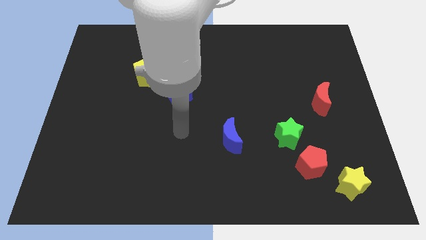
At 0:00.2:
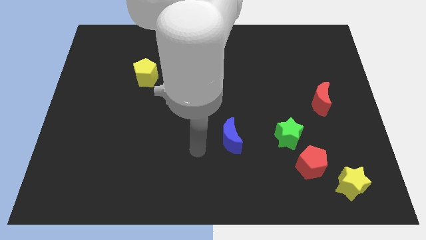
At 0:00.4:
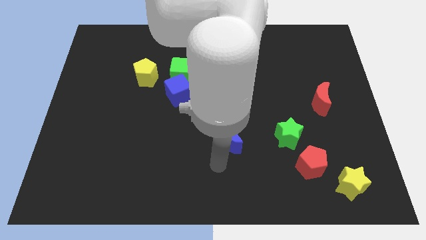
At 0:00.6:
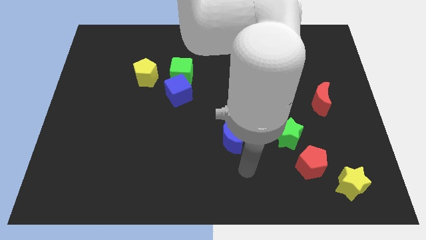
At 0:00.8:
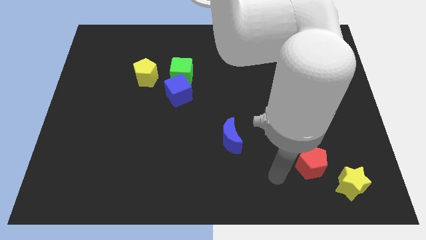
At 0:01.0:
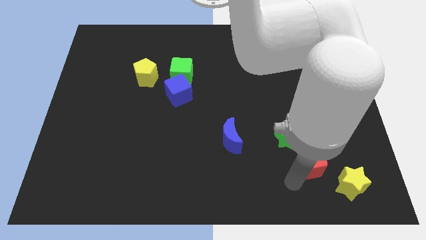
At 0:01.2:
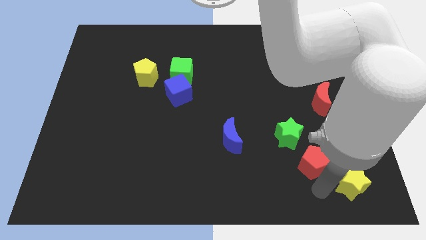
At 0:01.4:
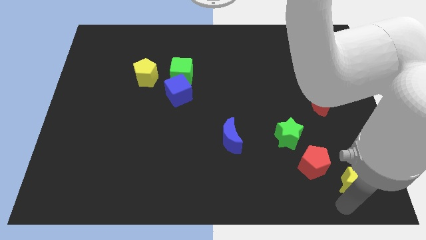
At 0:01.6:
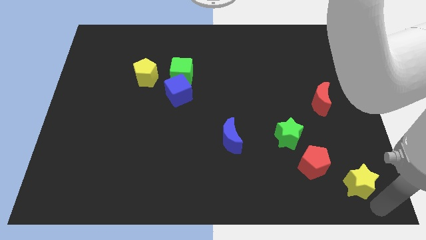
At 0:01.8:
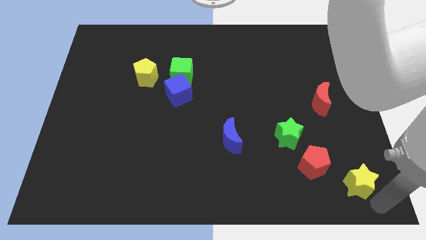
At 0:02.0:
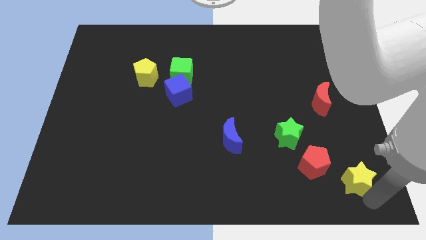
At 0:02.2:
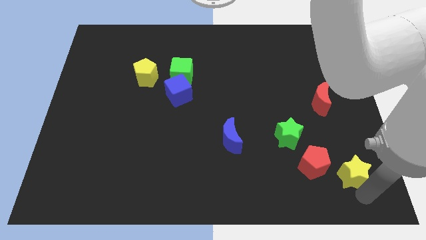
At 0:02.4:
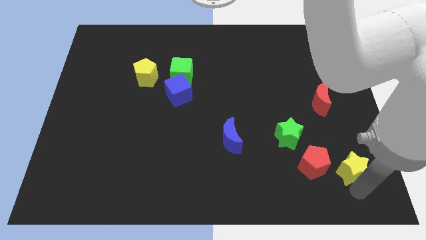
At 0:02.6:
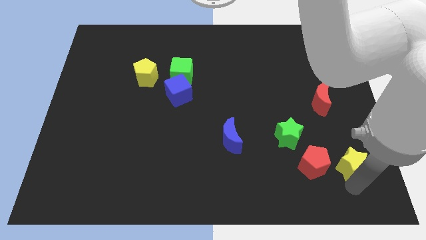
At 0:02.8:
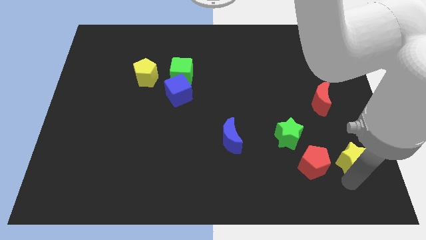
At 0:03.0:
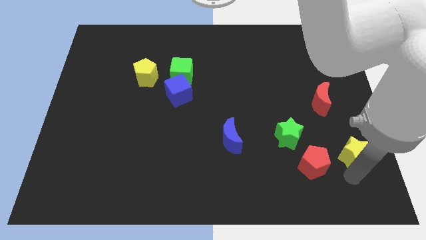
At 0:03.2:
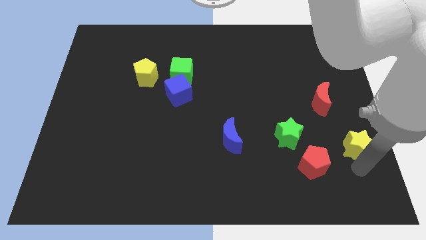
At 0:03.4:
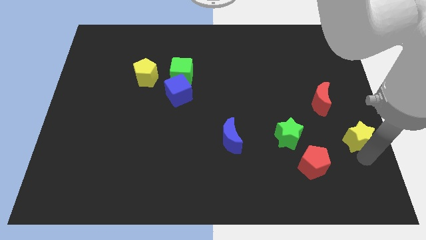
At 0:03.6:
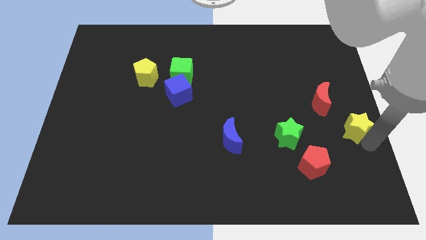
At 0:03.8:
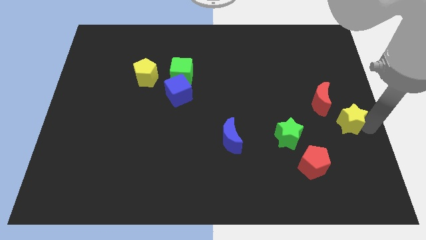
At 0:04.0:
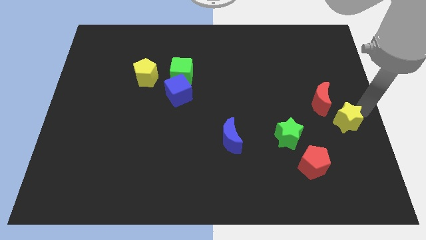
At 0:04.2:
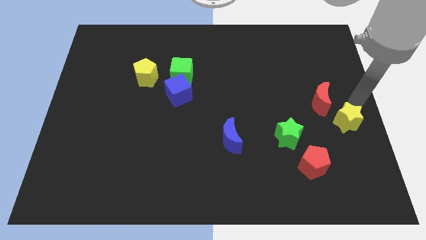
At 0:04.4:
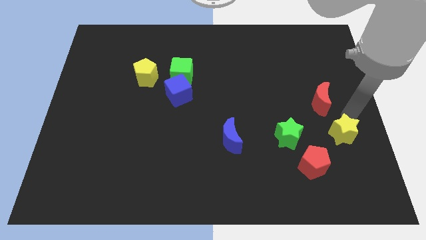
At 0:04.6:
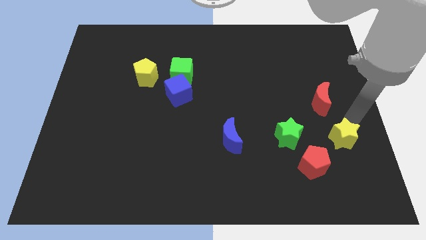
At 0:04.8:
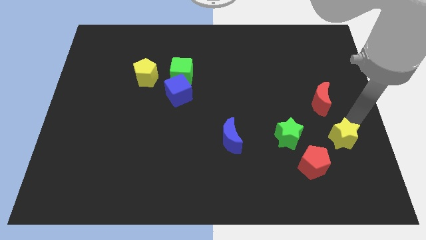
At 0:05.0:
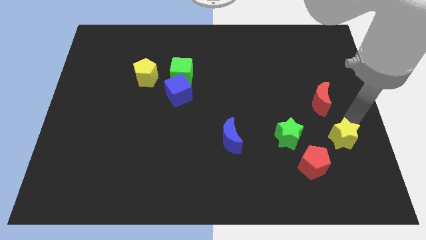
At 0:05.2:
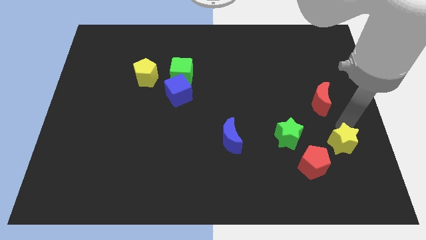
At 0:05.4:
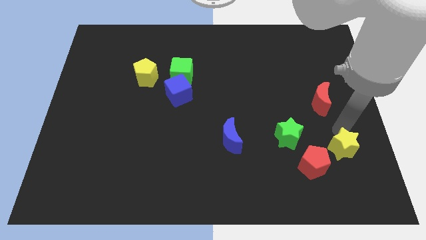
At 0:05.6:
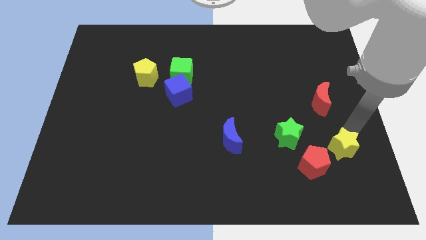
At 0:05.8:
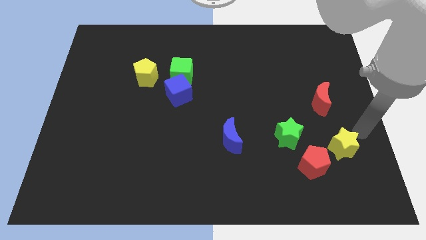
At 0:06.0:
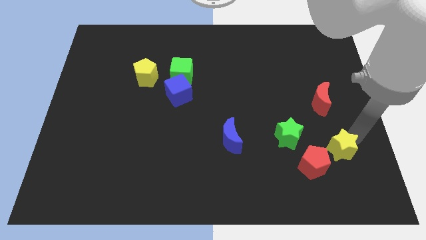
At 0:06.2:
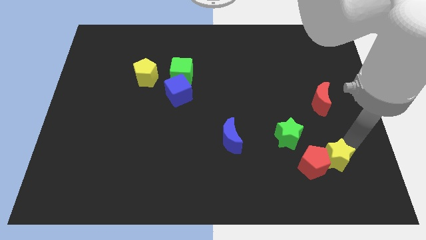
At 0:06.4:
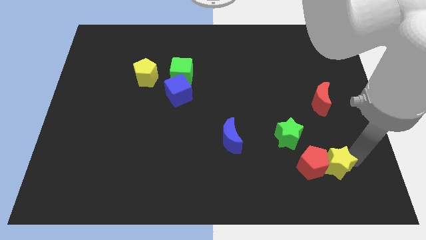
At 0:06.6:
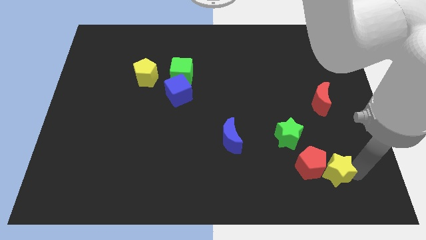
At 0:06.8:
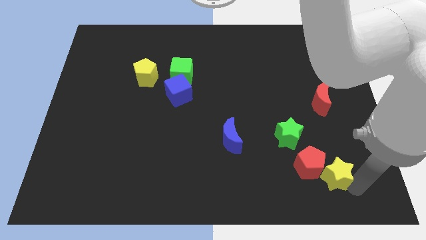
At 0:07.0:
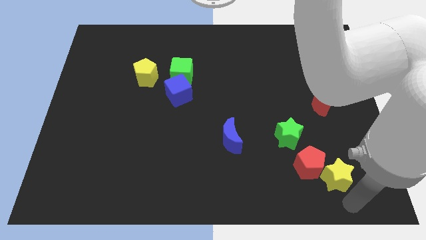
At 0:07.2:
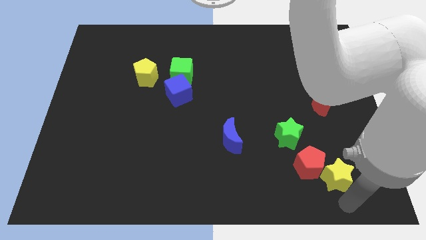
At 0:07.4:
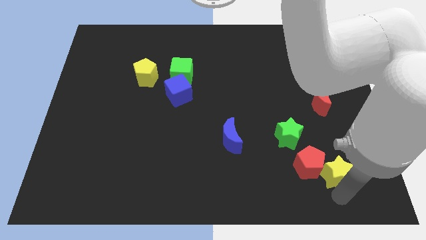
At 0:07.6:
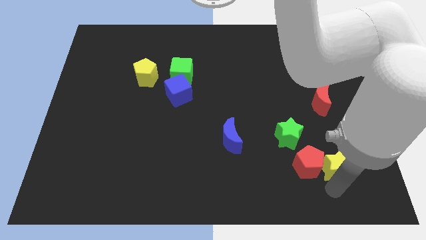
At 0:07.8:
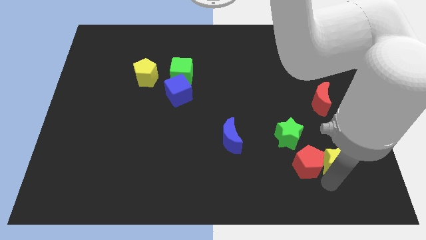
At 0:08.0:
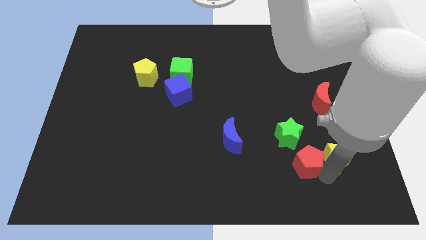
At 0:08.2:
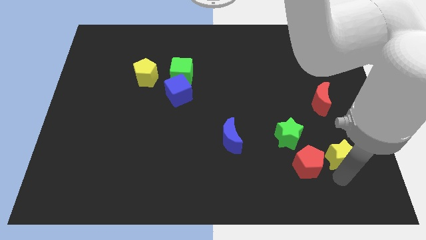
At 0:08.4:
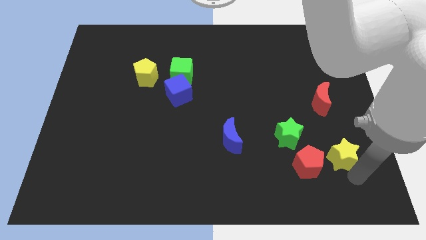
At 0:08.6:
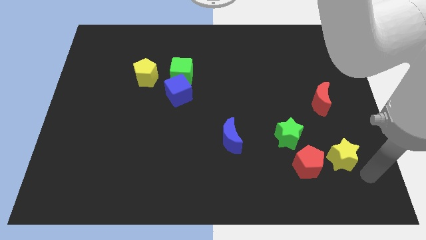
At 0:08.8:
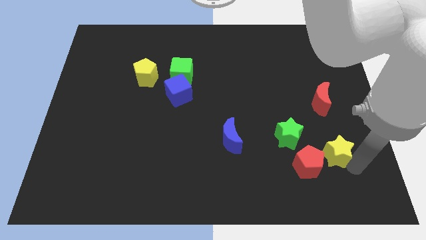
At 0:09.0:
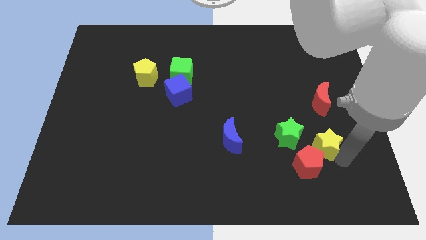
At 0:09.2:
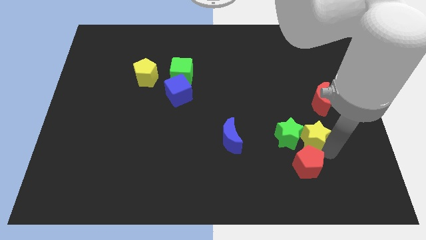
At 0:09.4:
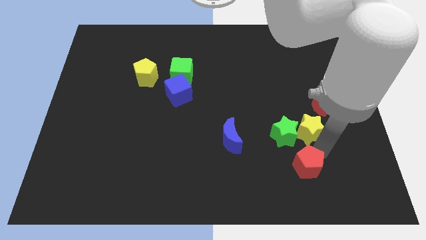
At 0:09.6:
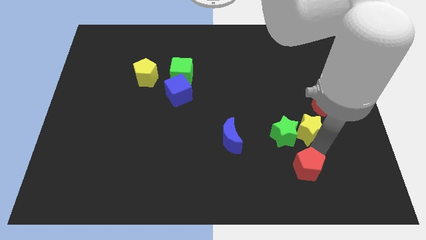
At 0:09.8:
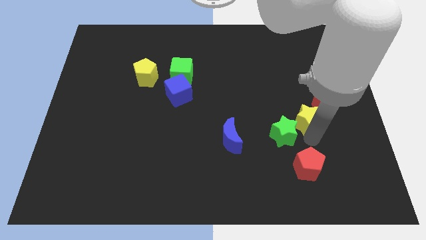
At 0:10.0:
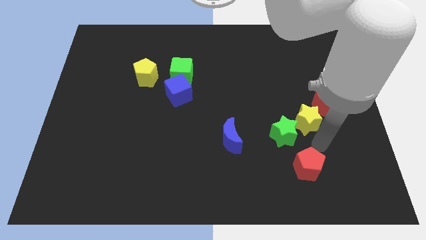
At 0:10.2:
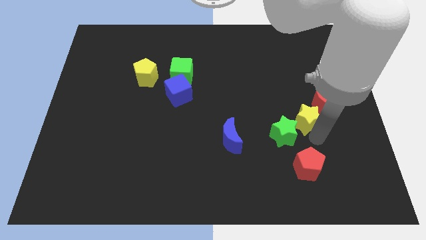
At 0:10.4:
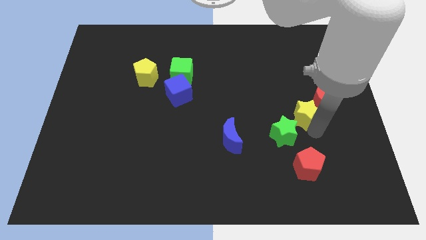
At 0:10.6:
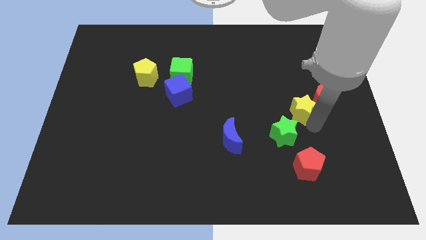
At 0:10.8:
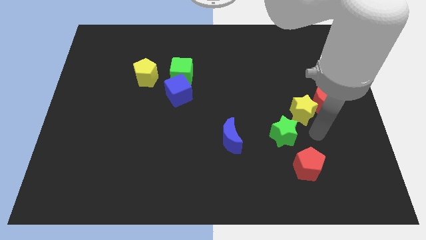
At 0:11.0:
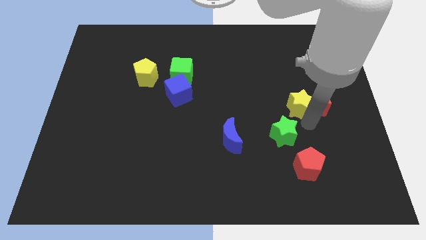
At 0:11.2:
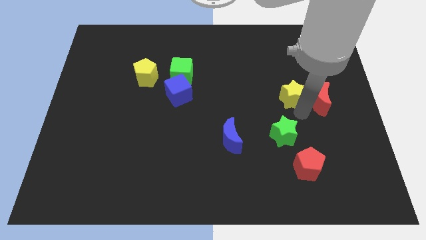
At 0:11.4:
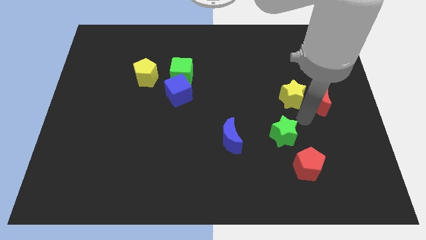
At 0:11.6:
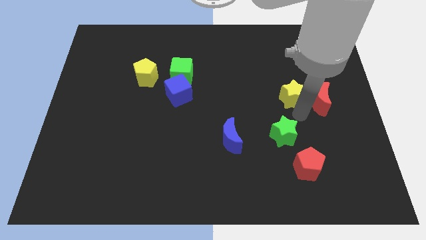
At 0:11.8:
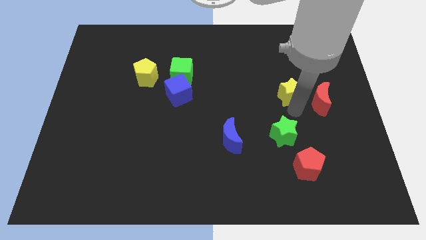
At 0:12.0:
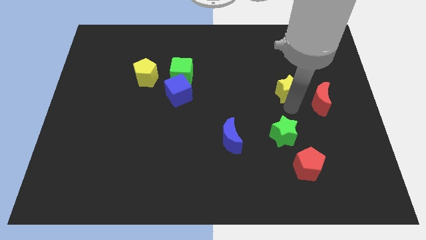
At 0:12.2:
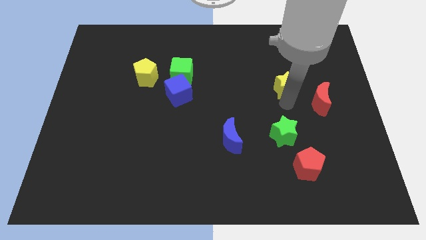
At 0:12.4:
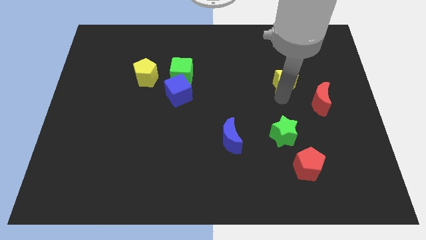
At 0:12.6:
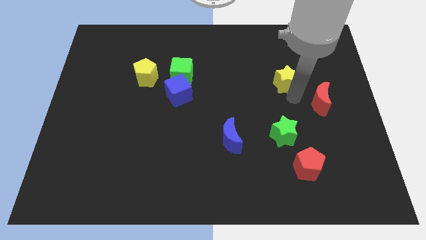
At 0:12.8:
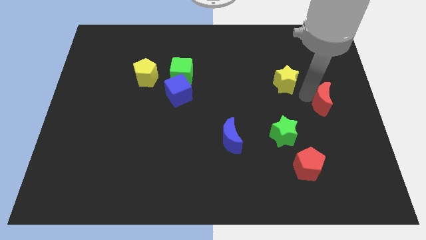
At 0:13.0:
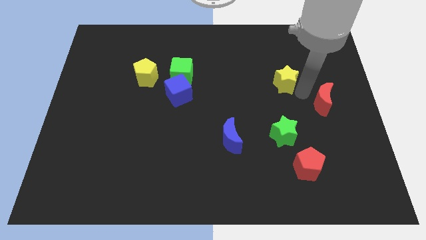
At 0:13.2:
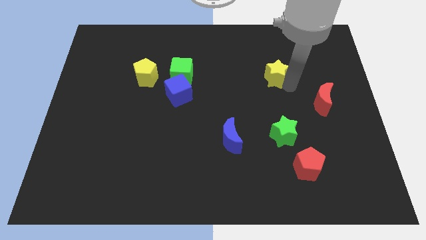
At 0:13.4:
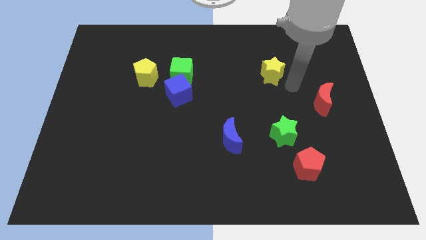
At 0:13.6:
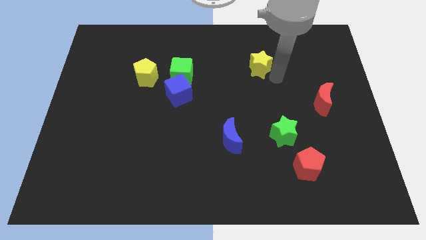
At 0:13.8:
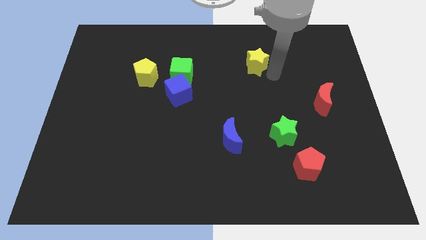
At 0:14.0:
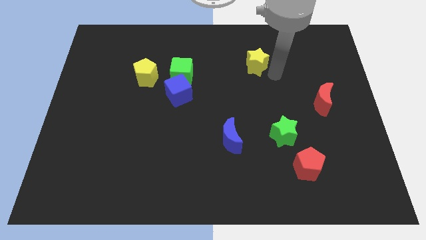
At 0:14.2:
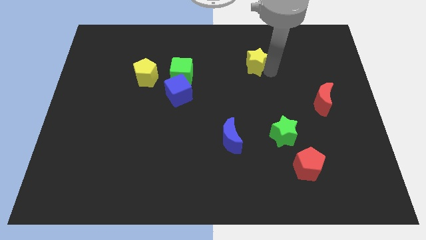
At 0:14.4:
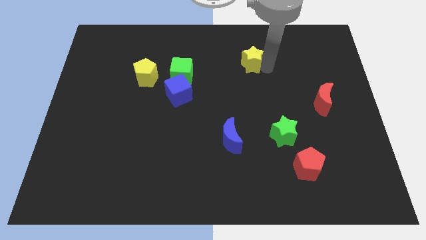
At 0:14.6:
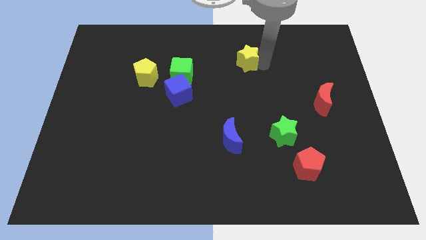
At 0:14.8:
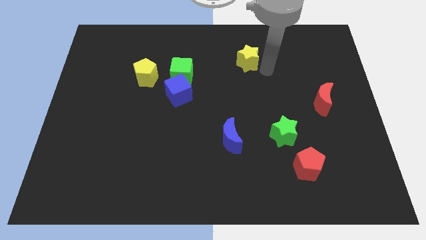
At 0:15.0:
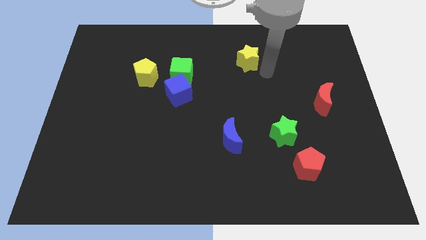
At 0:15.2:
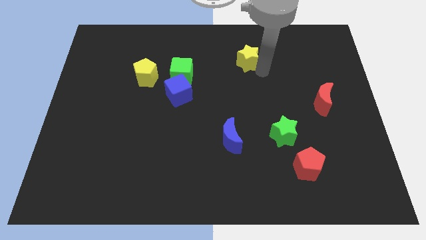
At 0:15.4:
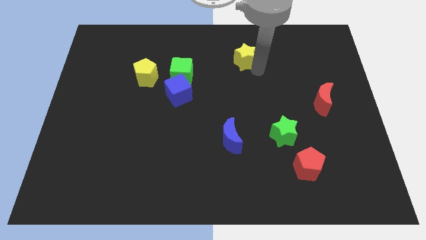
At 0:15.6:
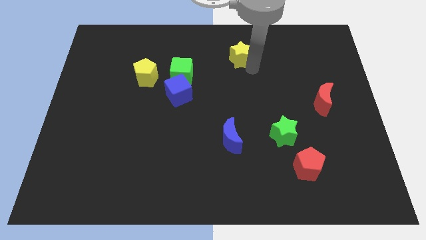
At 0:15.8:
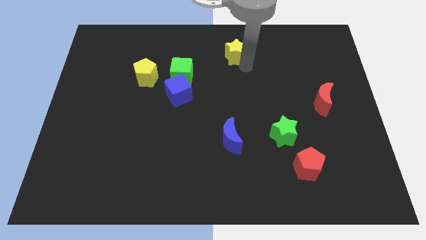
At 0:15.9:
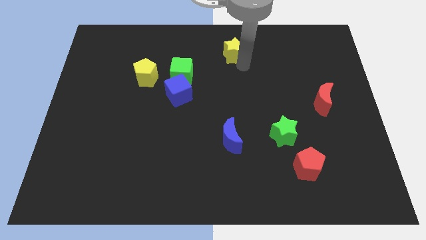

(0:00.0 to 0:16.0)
slide the yellow star to the top
